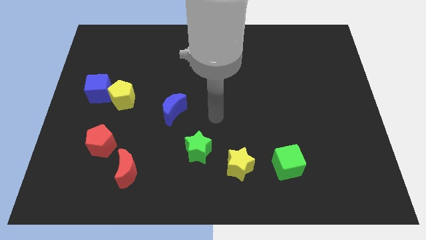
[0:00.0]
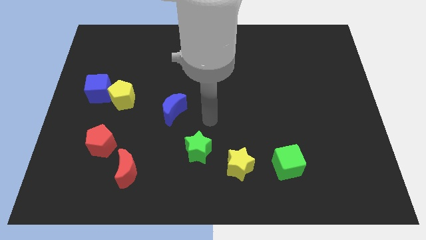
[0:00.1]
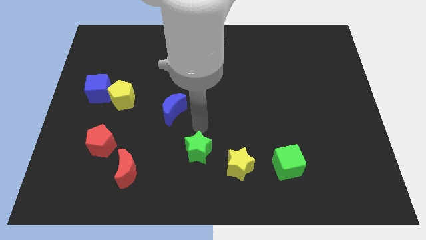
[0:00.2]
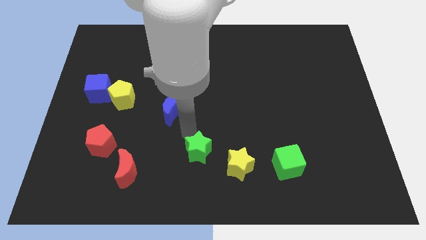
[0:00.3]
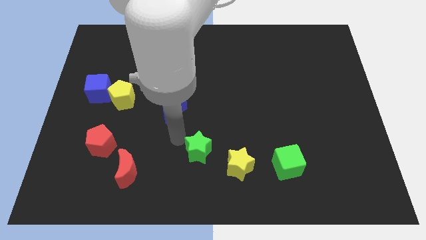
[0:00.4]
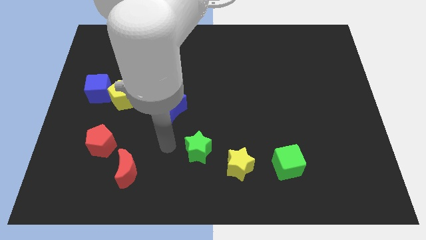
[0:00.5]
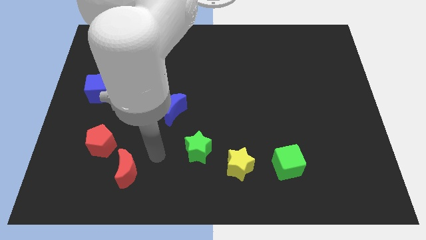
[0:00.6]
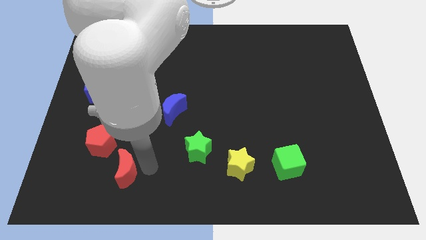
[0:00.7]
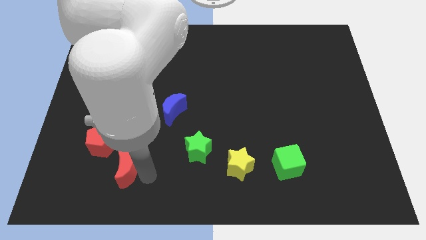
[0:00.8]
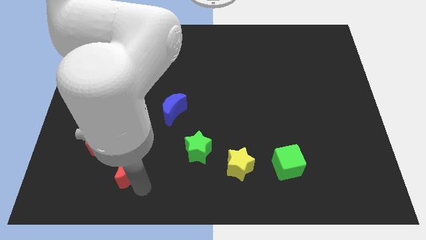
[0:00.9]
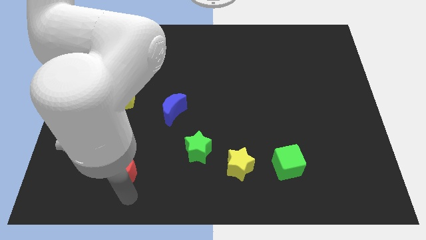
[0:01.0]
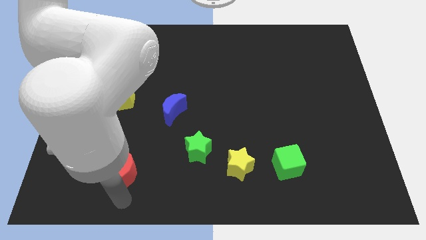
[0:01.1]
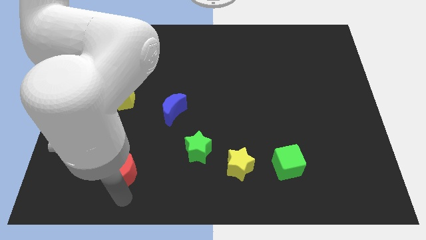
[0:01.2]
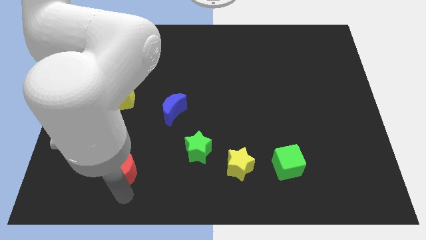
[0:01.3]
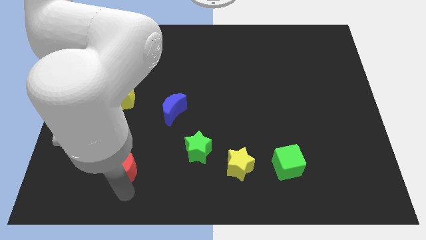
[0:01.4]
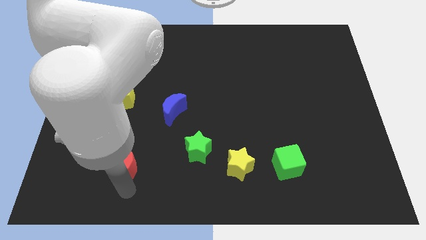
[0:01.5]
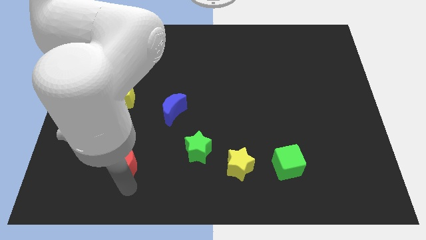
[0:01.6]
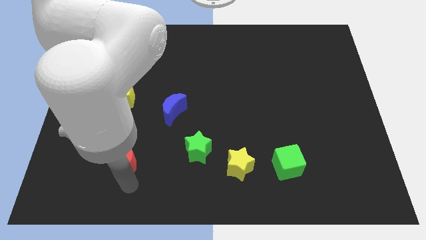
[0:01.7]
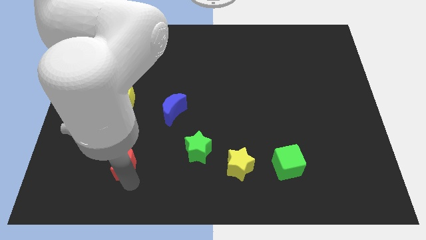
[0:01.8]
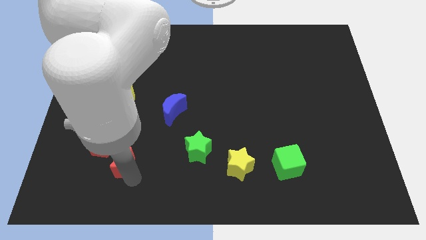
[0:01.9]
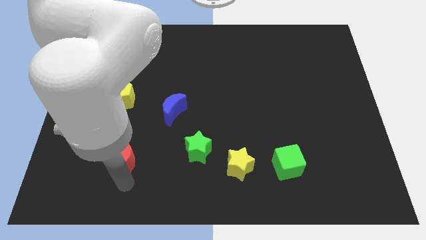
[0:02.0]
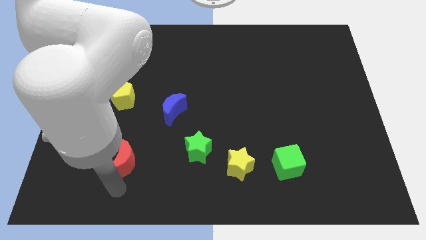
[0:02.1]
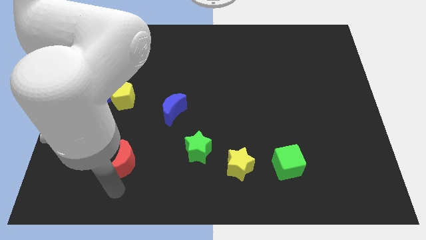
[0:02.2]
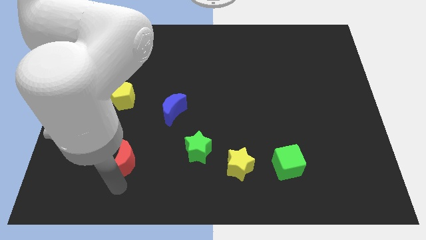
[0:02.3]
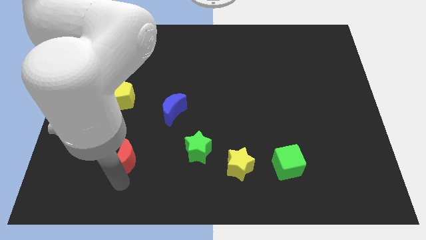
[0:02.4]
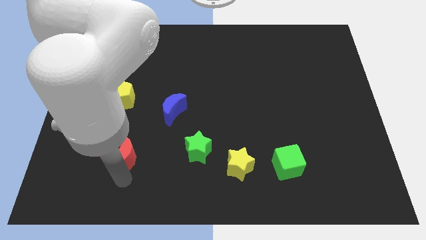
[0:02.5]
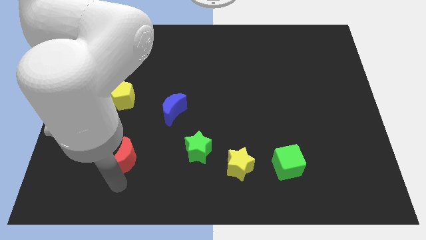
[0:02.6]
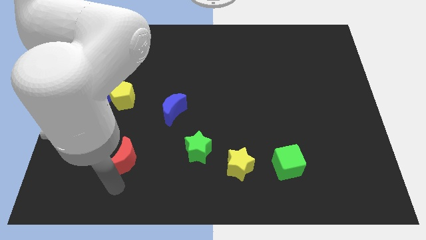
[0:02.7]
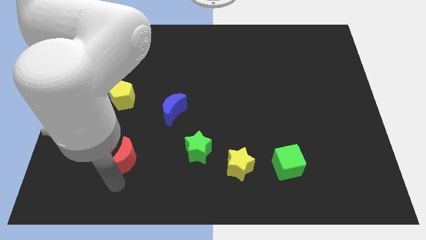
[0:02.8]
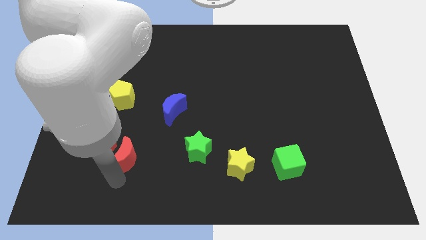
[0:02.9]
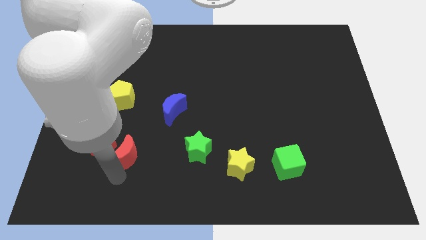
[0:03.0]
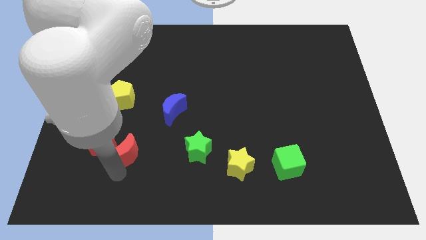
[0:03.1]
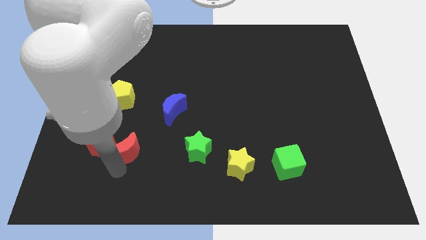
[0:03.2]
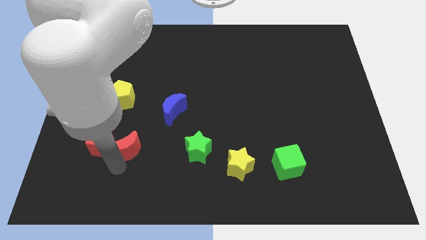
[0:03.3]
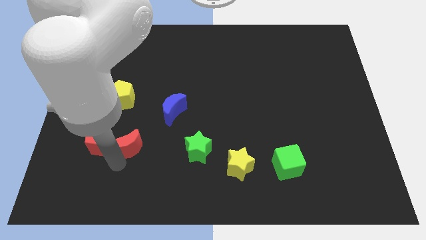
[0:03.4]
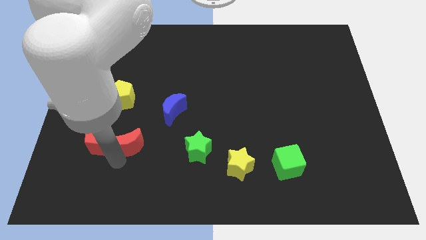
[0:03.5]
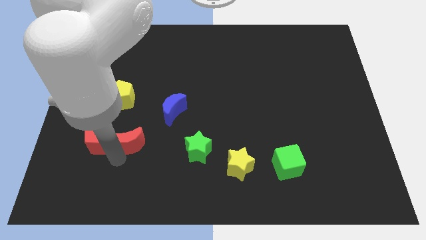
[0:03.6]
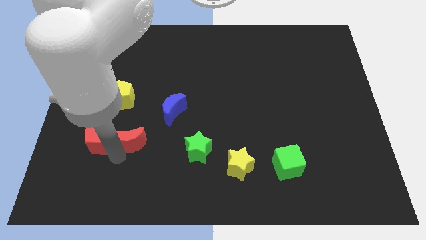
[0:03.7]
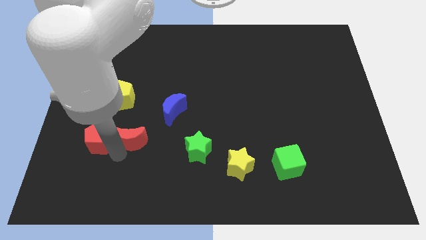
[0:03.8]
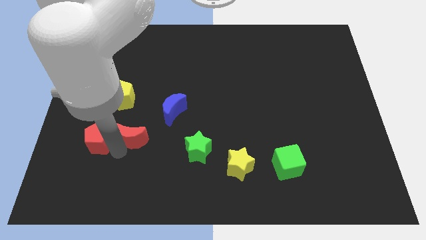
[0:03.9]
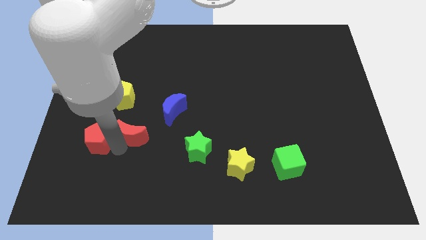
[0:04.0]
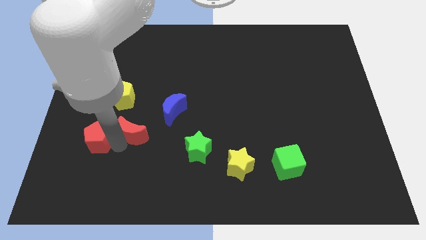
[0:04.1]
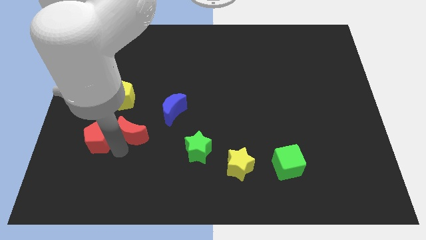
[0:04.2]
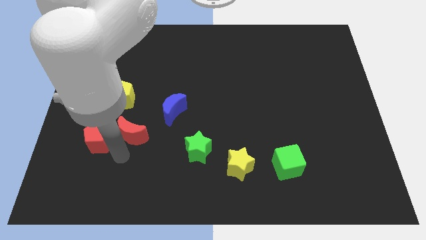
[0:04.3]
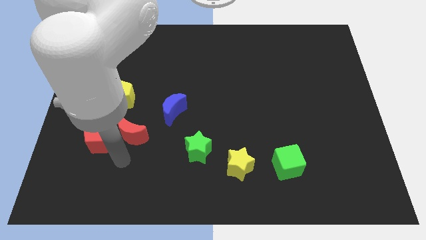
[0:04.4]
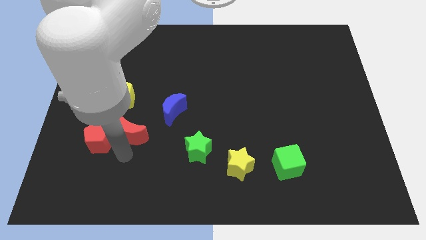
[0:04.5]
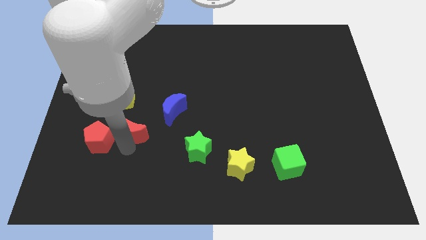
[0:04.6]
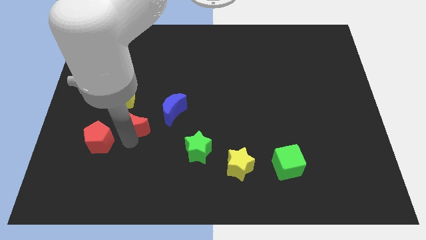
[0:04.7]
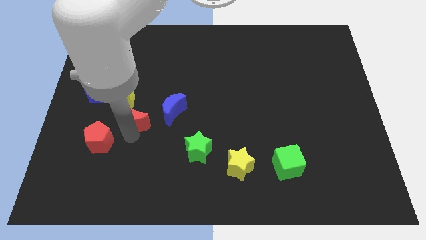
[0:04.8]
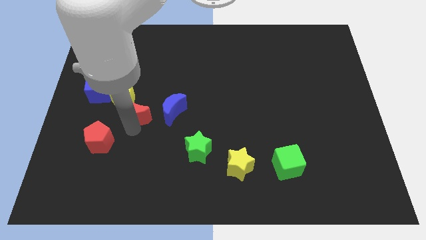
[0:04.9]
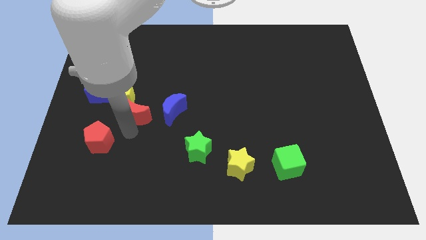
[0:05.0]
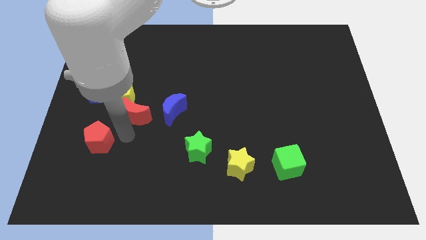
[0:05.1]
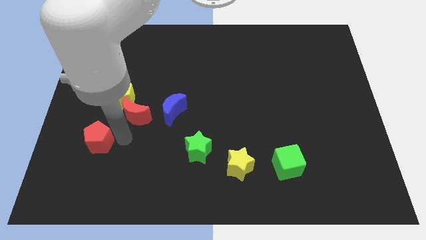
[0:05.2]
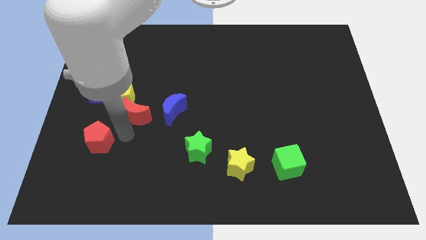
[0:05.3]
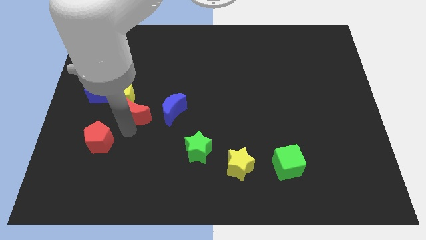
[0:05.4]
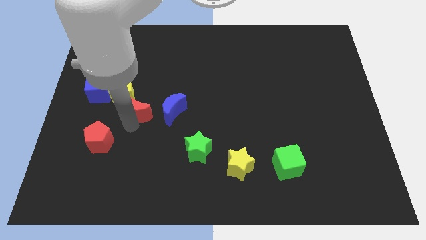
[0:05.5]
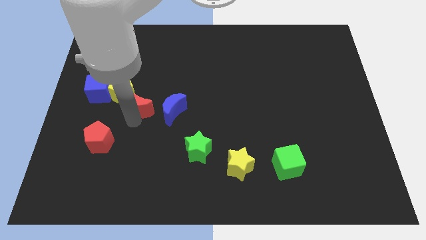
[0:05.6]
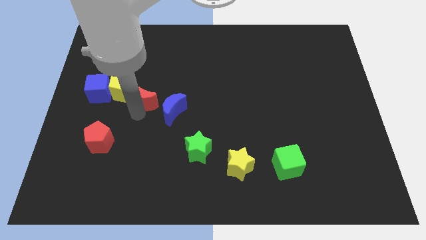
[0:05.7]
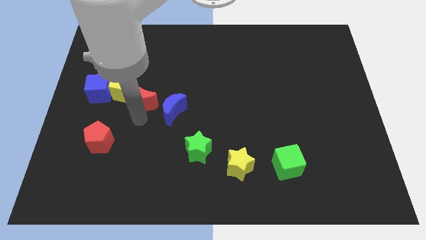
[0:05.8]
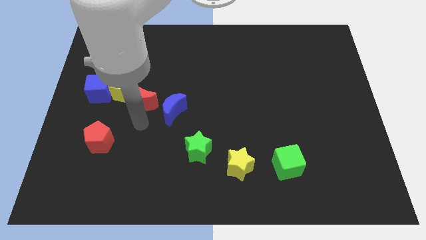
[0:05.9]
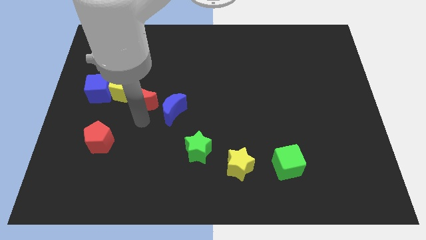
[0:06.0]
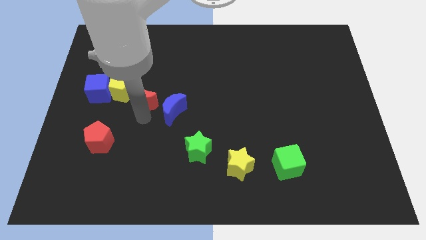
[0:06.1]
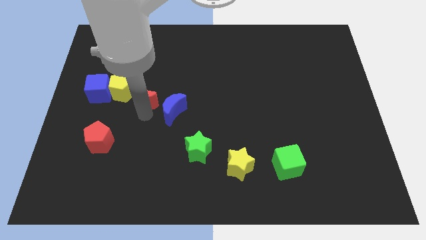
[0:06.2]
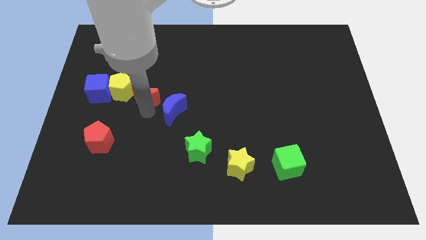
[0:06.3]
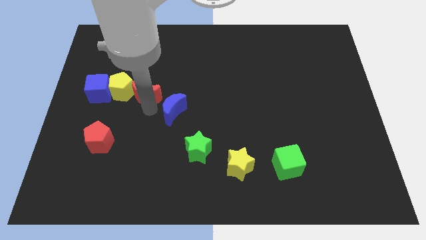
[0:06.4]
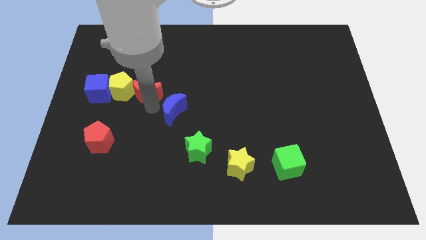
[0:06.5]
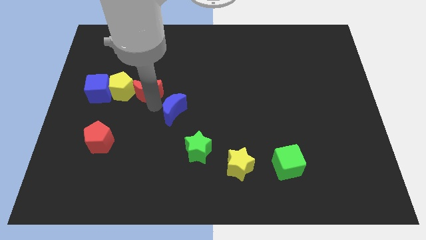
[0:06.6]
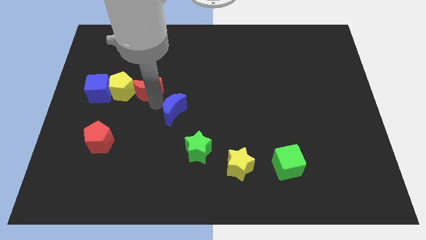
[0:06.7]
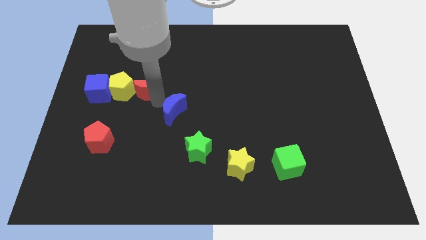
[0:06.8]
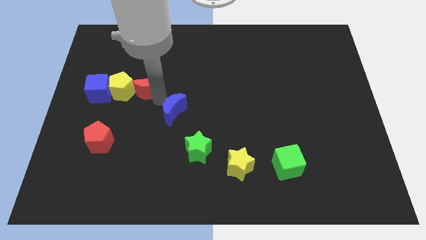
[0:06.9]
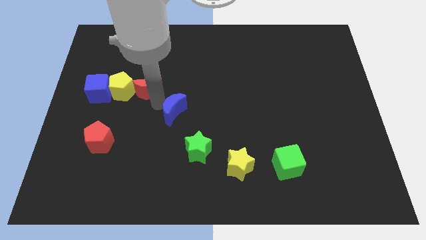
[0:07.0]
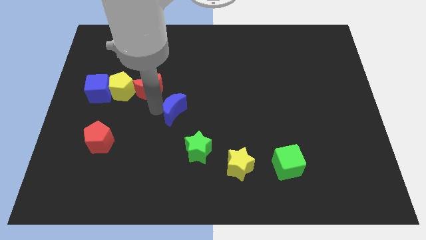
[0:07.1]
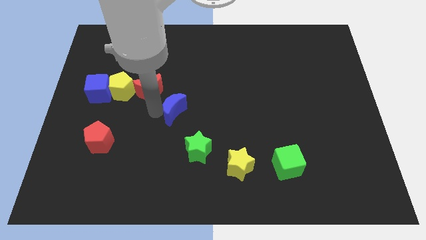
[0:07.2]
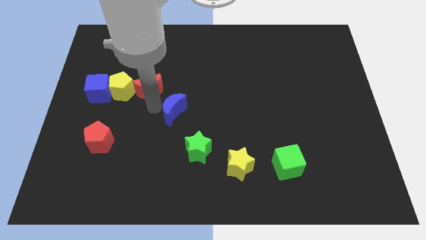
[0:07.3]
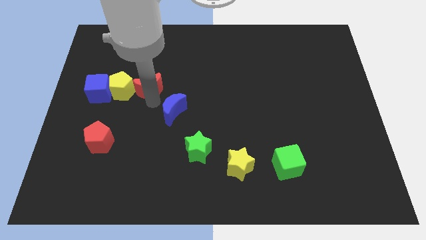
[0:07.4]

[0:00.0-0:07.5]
slide the red moon diagonally up and to the right of the yellow pentagon

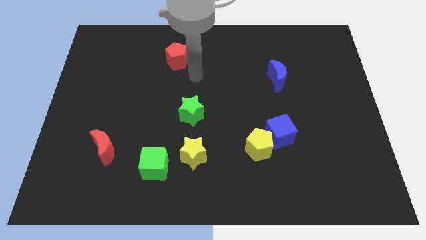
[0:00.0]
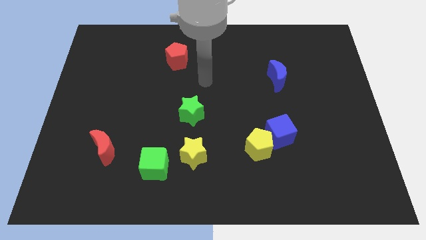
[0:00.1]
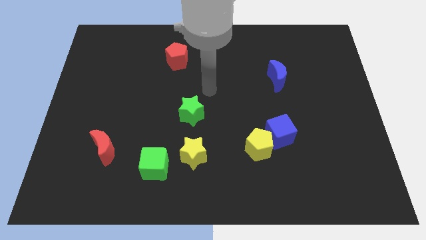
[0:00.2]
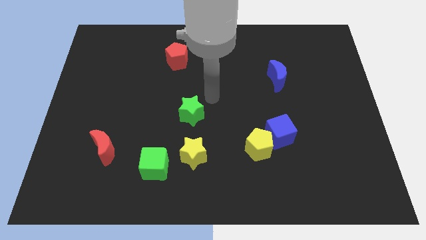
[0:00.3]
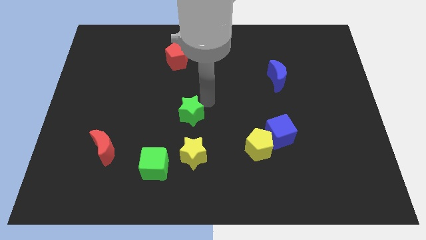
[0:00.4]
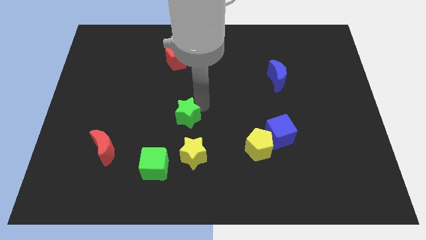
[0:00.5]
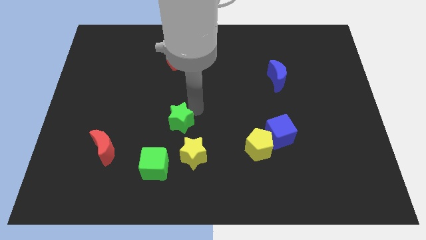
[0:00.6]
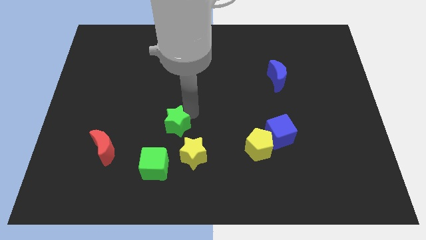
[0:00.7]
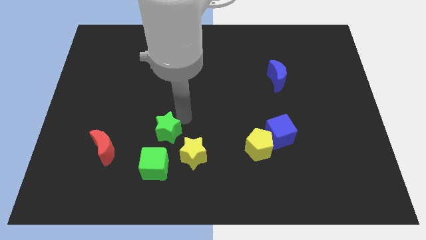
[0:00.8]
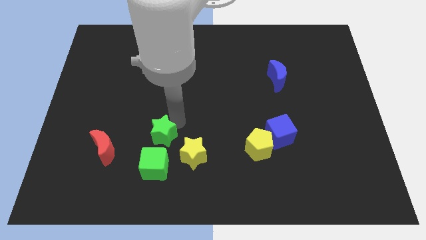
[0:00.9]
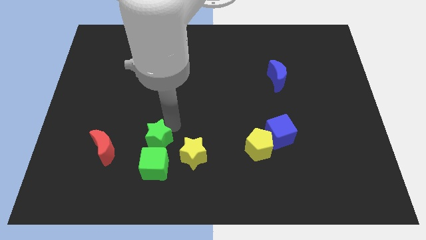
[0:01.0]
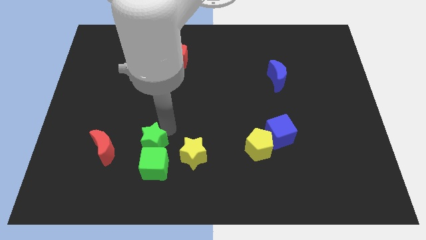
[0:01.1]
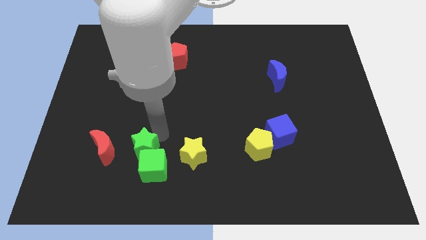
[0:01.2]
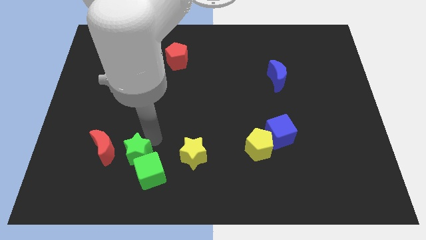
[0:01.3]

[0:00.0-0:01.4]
put the green star diagonally down and to the right of the red moon
